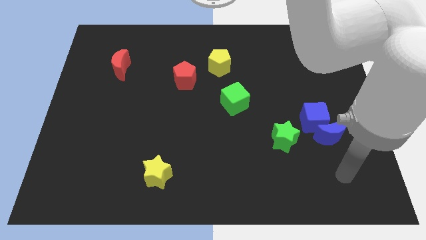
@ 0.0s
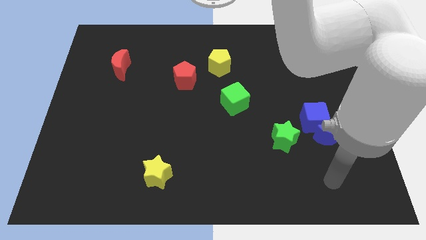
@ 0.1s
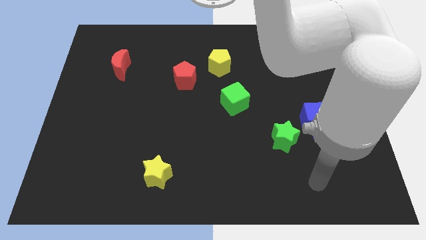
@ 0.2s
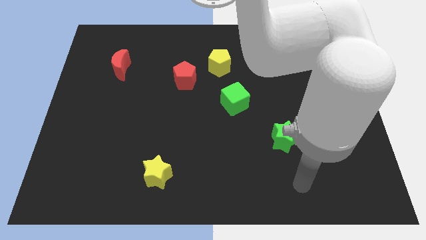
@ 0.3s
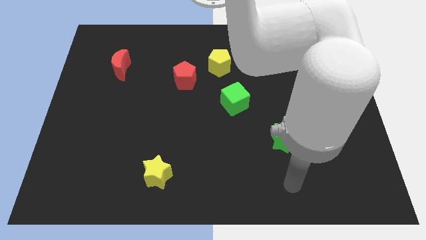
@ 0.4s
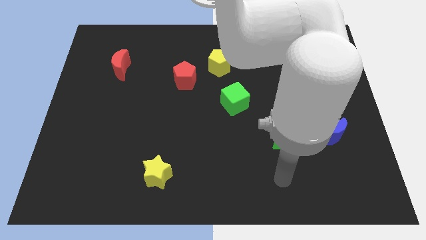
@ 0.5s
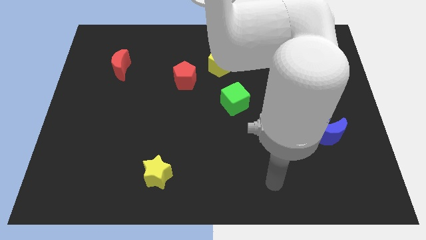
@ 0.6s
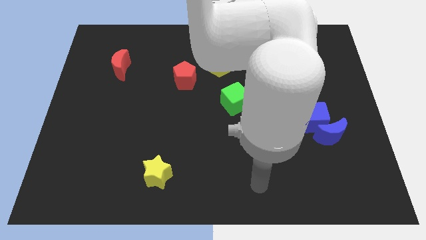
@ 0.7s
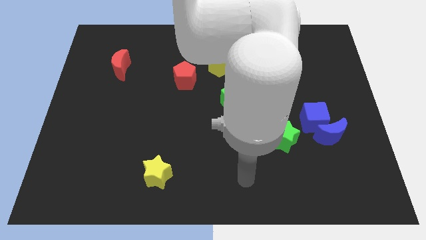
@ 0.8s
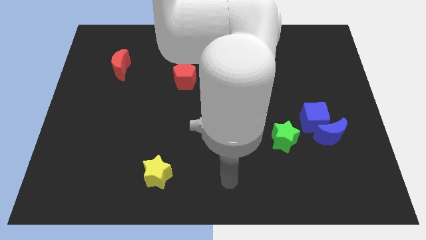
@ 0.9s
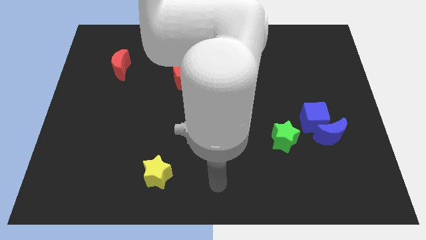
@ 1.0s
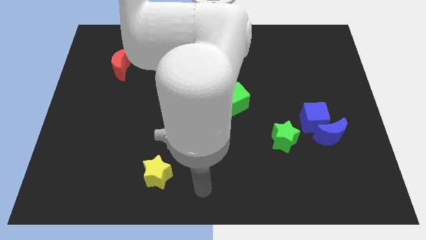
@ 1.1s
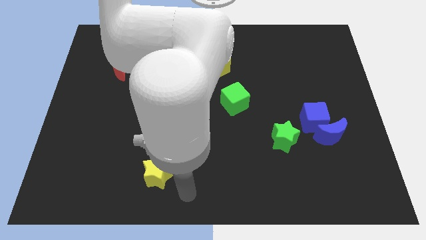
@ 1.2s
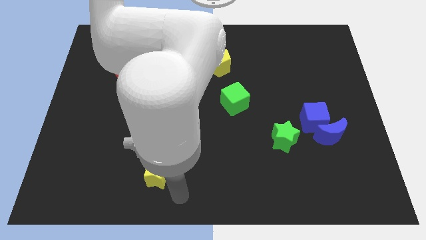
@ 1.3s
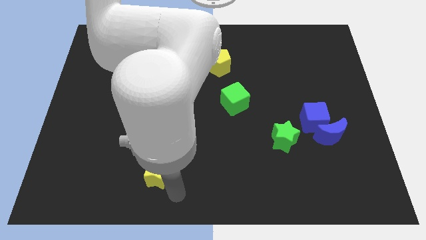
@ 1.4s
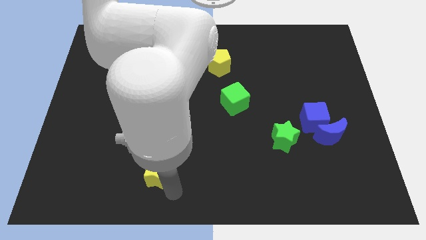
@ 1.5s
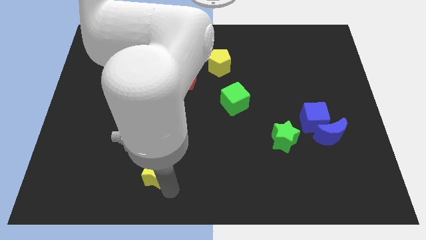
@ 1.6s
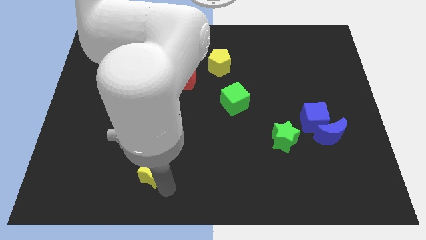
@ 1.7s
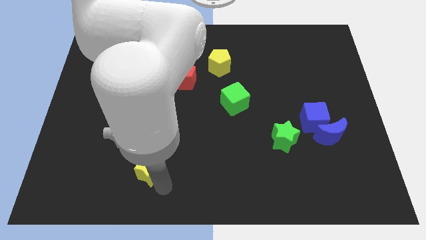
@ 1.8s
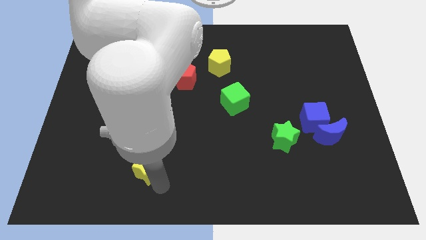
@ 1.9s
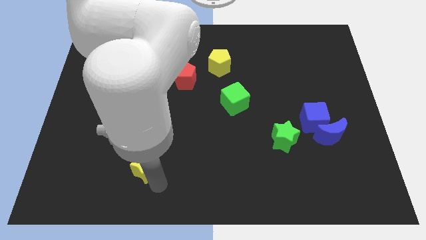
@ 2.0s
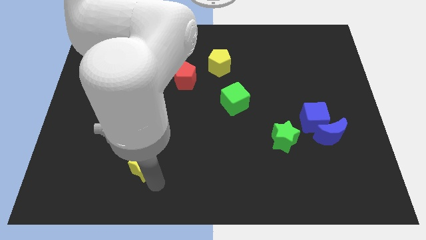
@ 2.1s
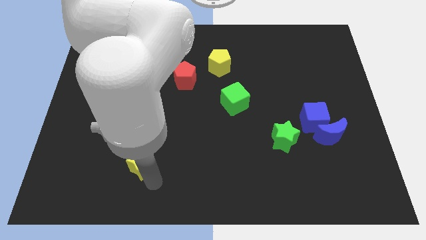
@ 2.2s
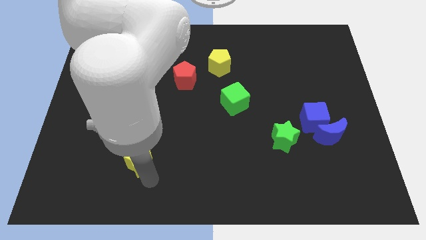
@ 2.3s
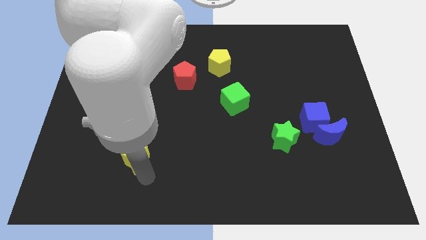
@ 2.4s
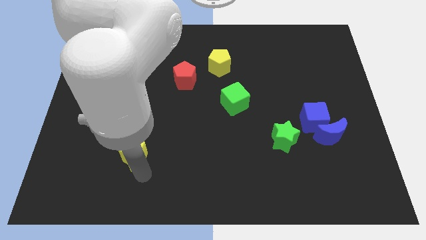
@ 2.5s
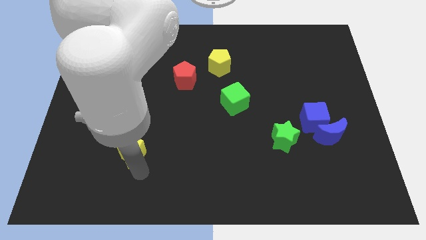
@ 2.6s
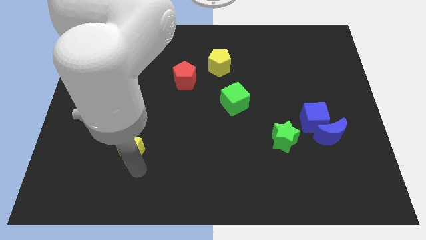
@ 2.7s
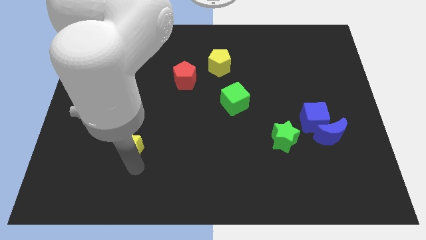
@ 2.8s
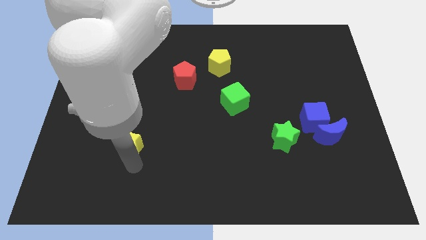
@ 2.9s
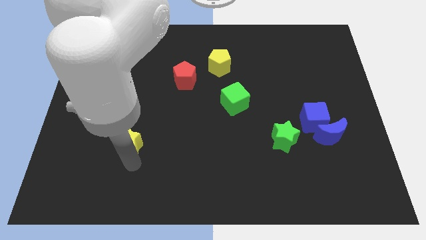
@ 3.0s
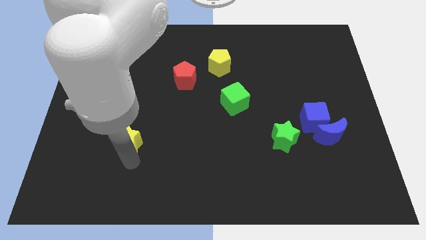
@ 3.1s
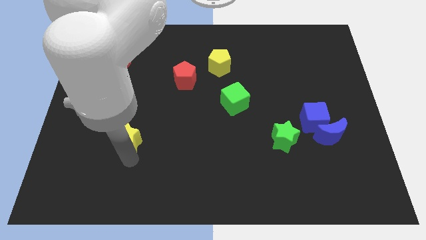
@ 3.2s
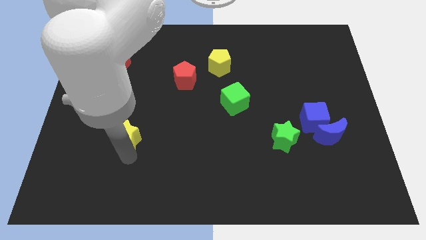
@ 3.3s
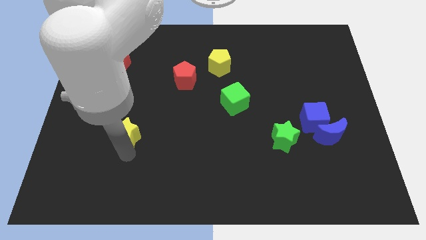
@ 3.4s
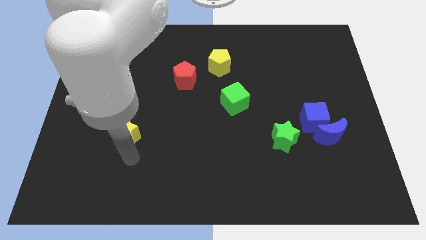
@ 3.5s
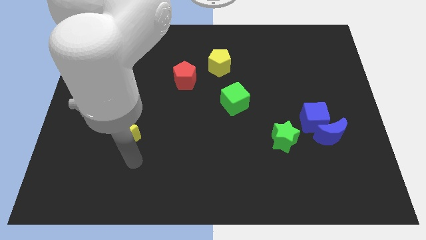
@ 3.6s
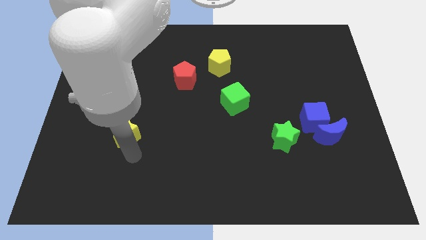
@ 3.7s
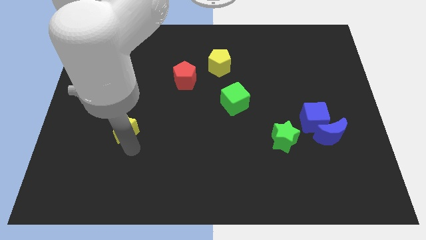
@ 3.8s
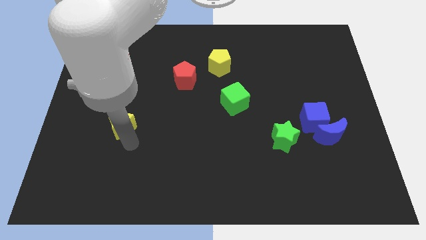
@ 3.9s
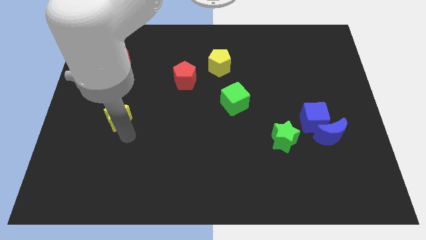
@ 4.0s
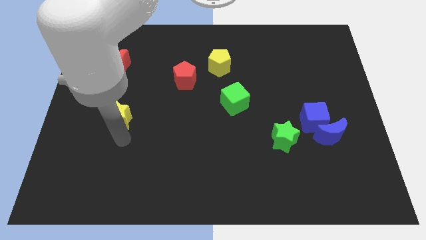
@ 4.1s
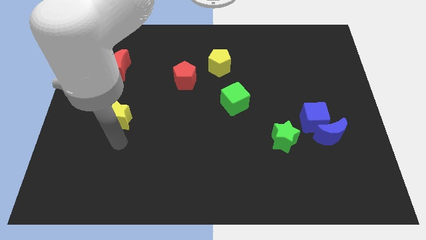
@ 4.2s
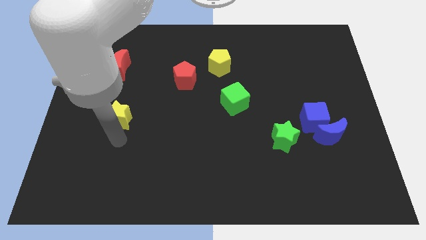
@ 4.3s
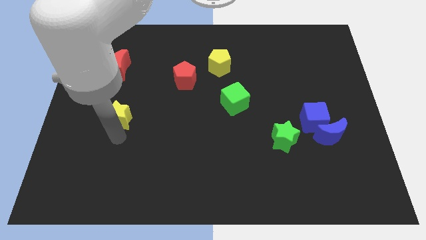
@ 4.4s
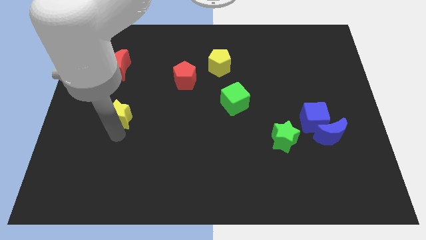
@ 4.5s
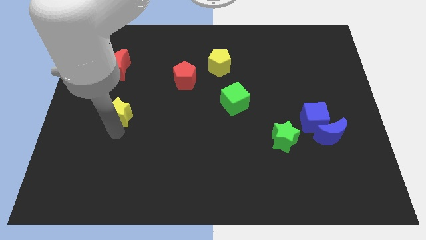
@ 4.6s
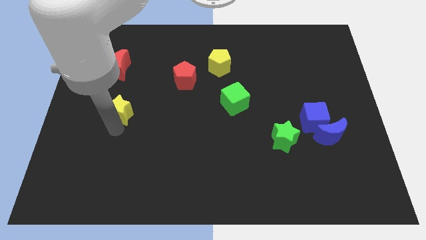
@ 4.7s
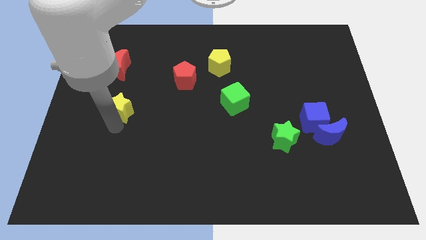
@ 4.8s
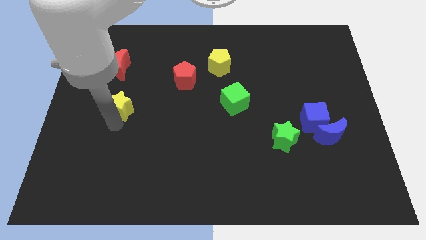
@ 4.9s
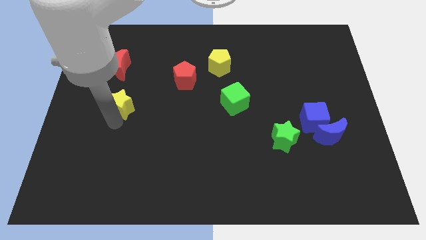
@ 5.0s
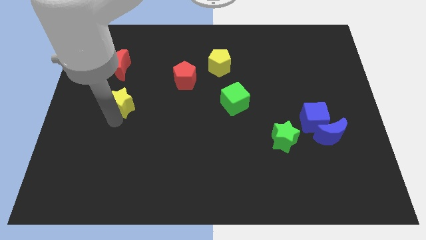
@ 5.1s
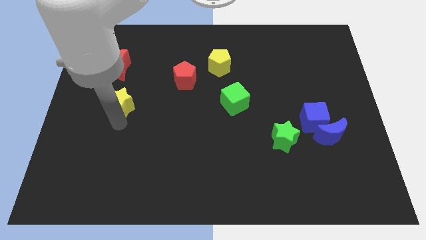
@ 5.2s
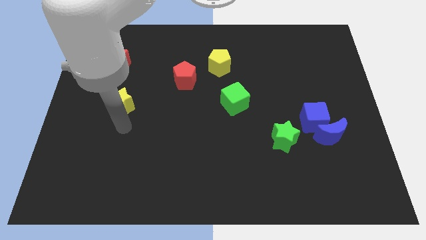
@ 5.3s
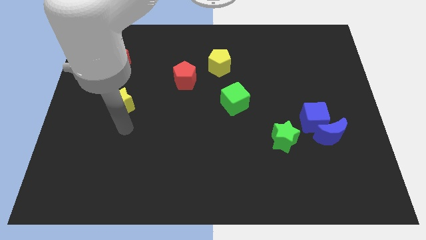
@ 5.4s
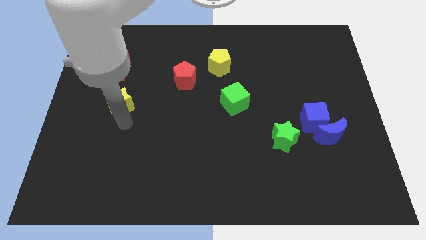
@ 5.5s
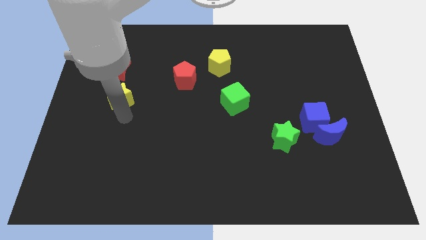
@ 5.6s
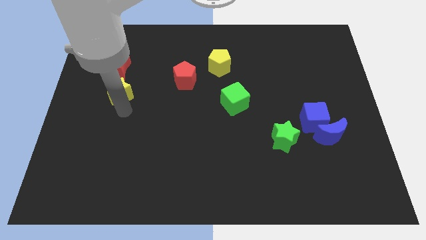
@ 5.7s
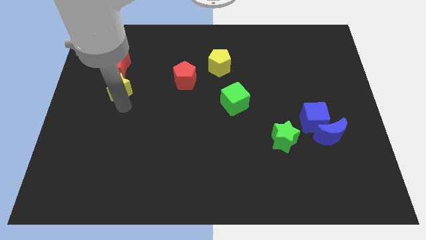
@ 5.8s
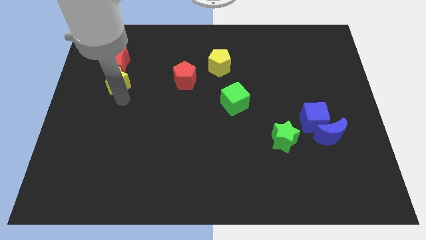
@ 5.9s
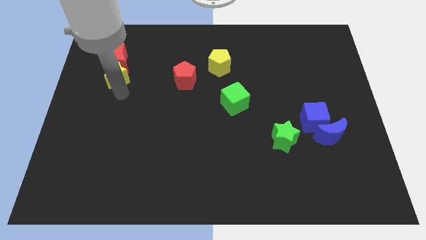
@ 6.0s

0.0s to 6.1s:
put the yellow star to the red moon

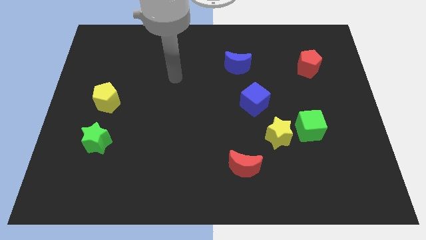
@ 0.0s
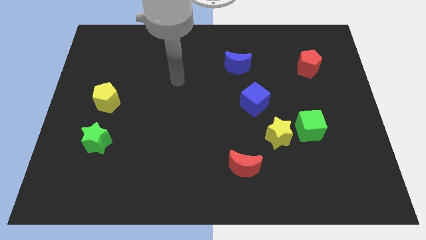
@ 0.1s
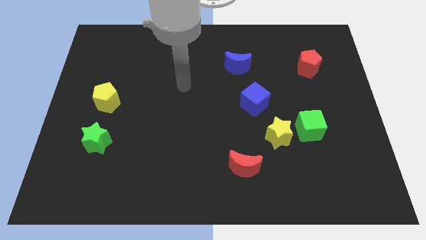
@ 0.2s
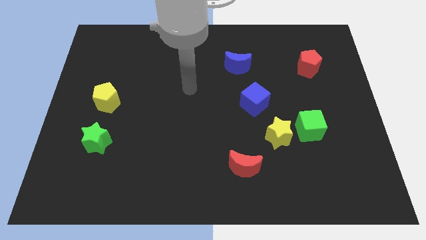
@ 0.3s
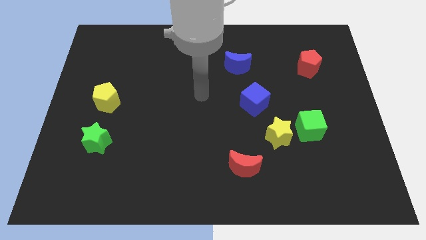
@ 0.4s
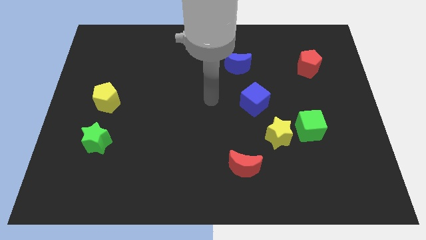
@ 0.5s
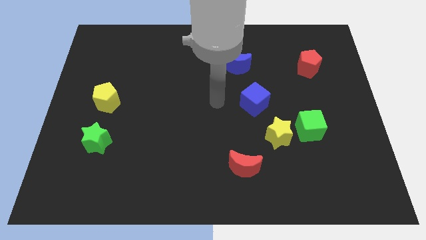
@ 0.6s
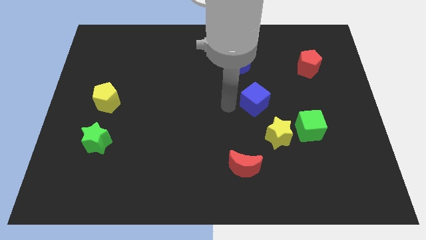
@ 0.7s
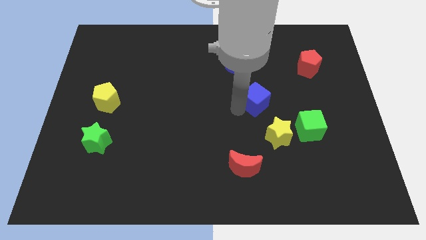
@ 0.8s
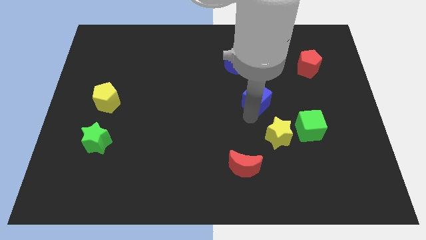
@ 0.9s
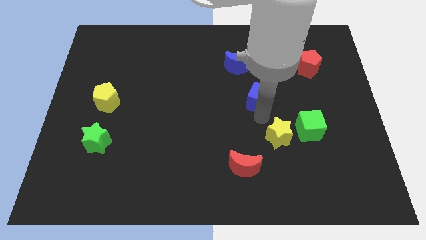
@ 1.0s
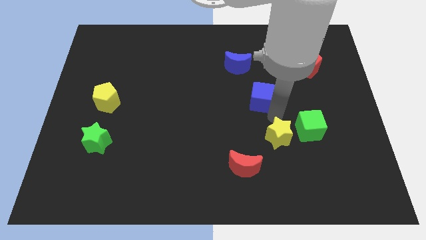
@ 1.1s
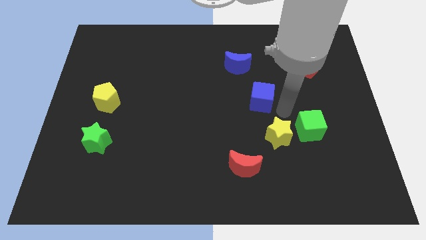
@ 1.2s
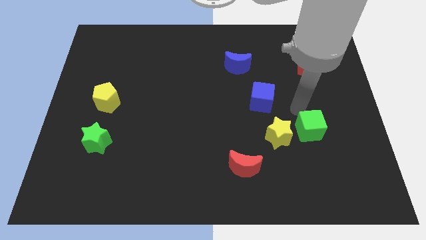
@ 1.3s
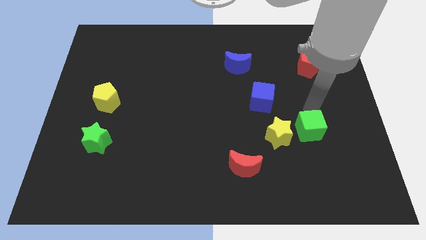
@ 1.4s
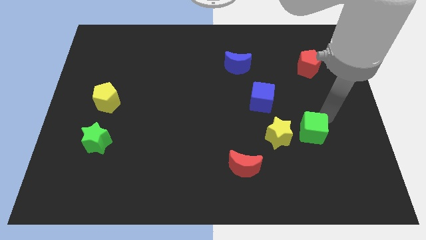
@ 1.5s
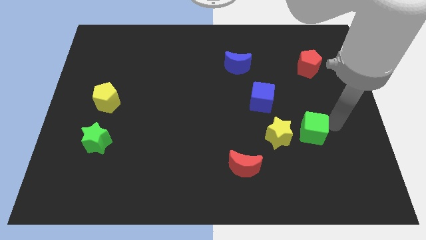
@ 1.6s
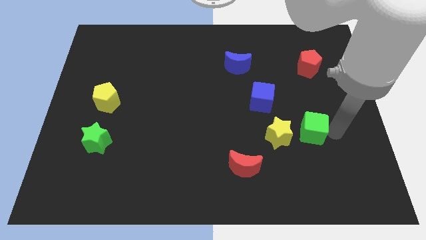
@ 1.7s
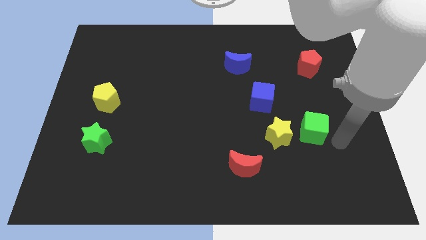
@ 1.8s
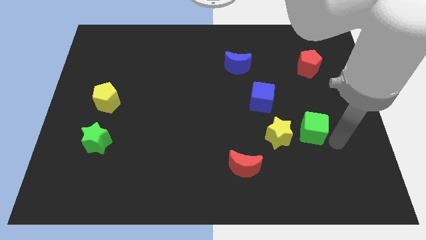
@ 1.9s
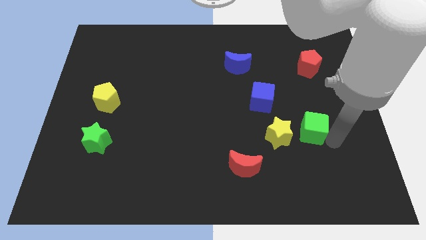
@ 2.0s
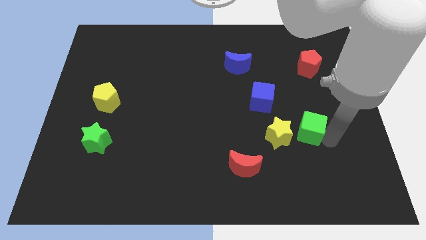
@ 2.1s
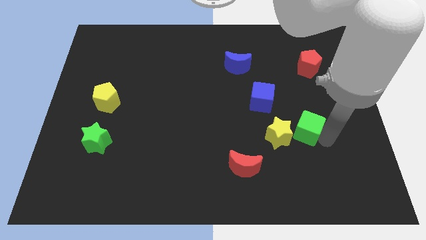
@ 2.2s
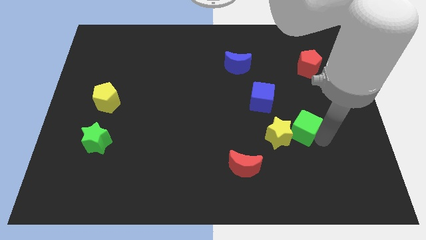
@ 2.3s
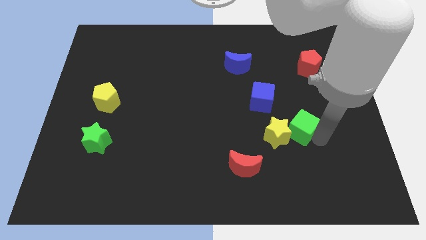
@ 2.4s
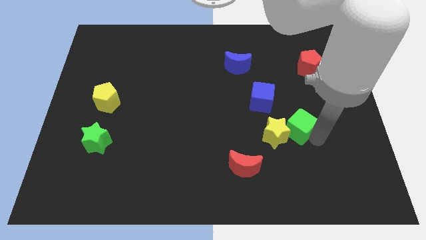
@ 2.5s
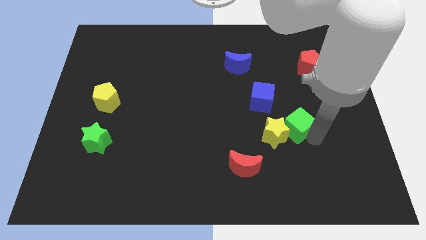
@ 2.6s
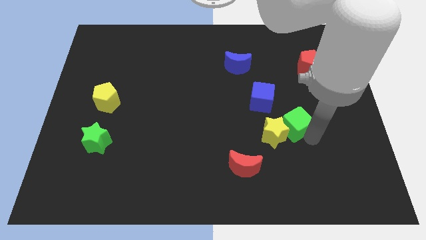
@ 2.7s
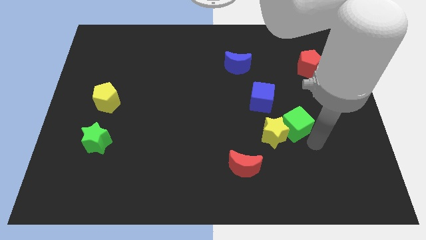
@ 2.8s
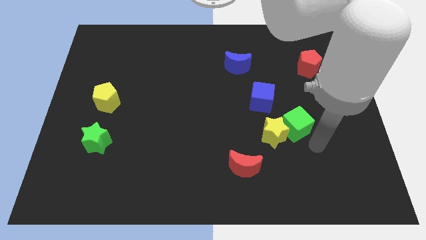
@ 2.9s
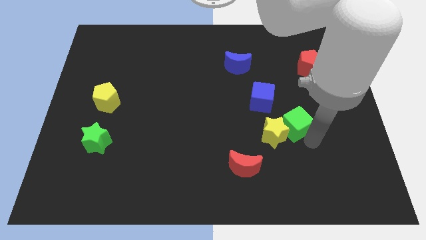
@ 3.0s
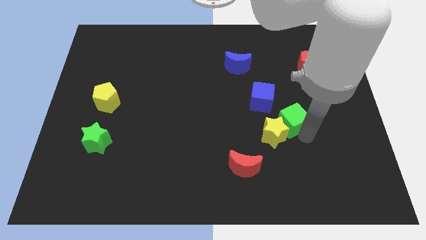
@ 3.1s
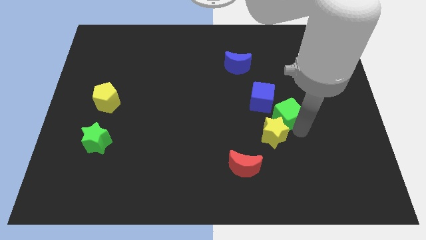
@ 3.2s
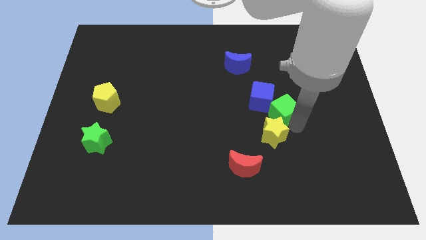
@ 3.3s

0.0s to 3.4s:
push the green cube towards the blue cube
